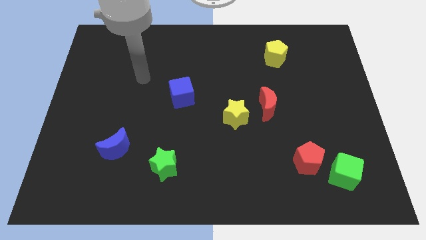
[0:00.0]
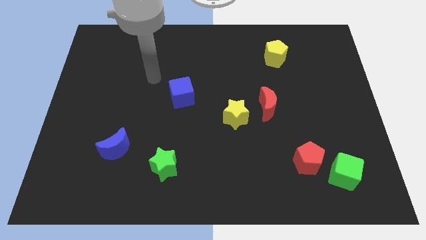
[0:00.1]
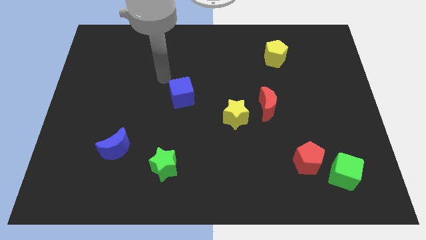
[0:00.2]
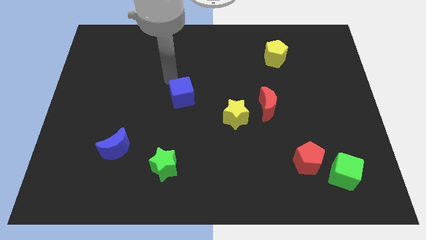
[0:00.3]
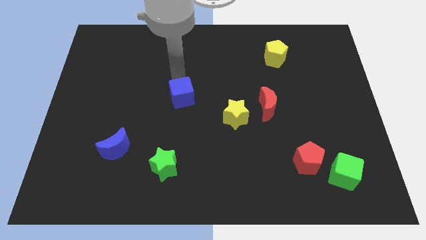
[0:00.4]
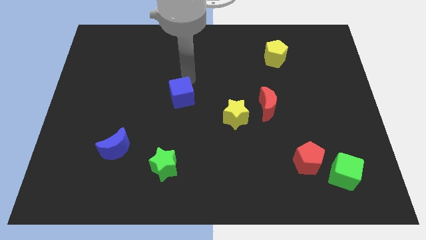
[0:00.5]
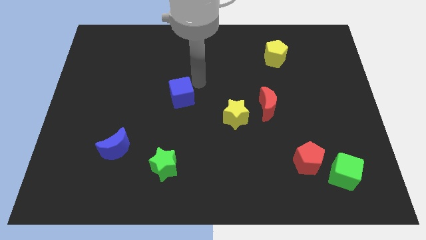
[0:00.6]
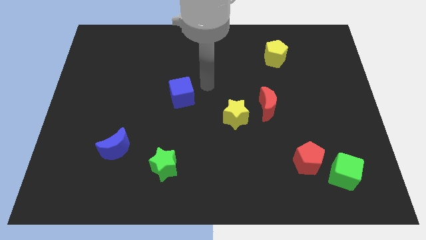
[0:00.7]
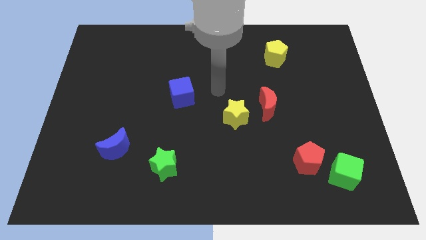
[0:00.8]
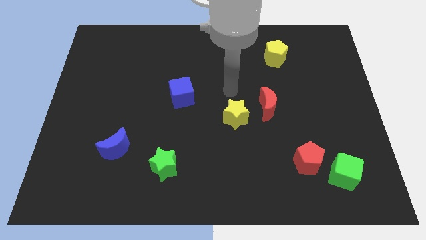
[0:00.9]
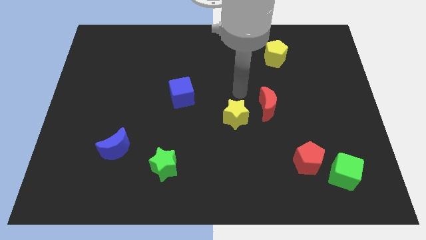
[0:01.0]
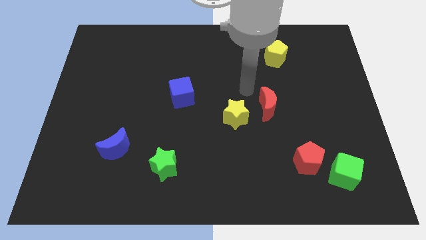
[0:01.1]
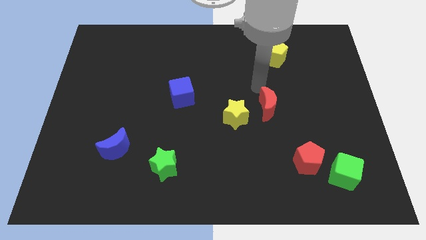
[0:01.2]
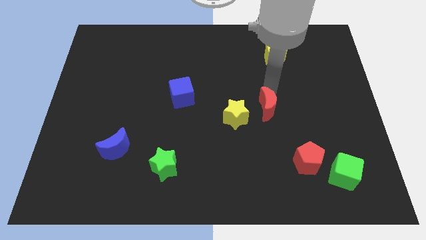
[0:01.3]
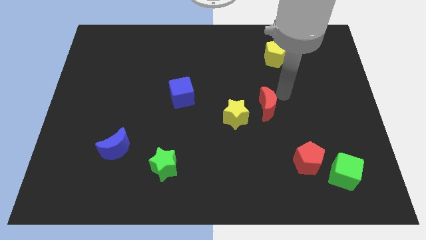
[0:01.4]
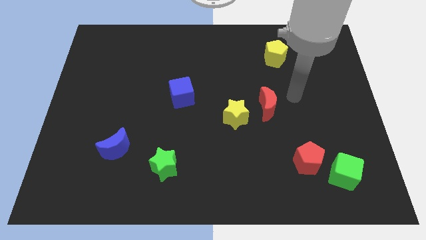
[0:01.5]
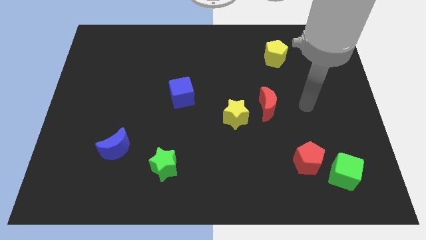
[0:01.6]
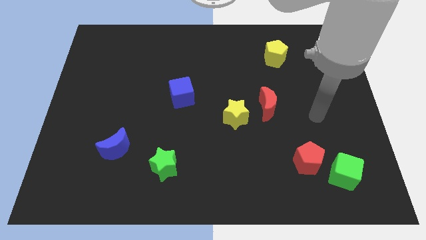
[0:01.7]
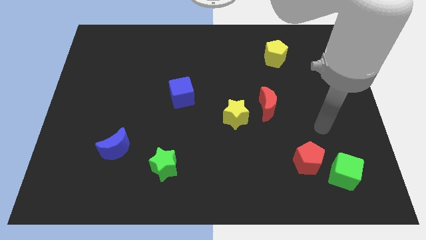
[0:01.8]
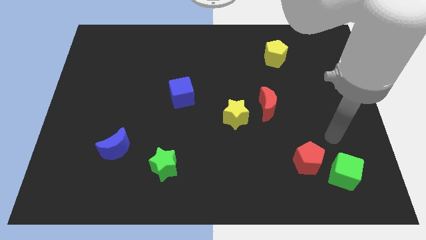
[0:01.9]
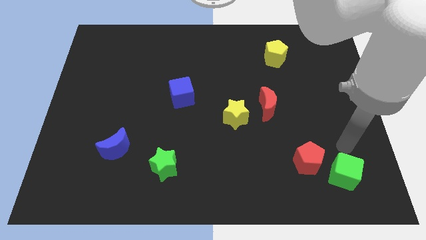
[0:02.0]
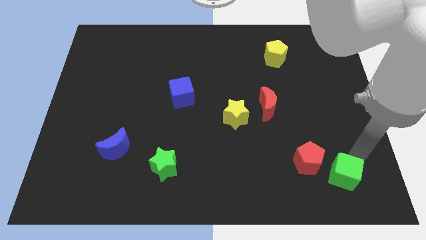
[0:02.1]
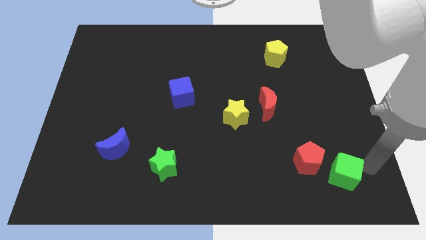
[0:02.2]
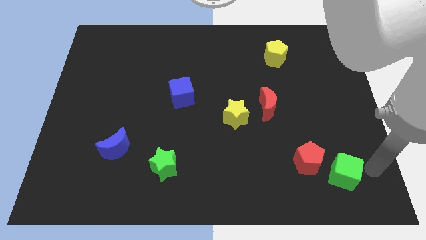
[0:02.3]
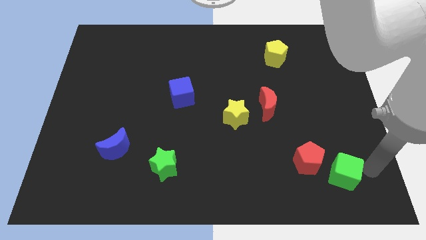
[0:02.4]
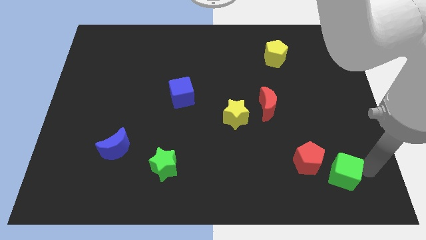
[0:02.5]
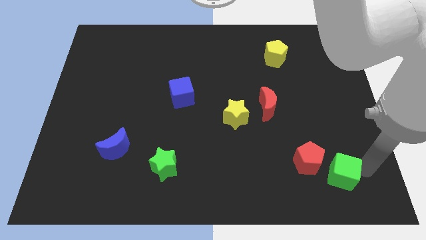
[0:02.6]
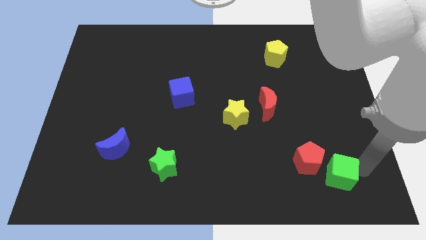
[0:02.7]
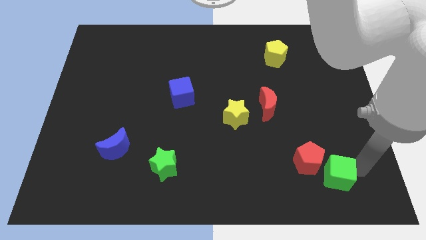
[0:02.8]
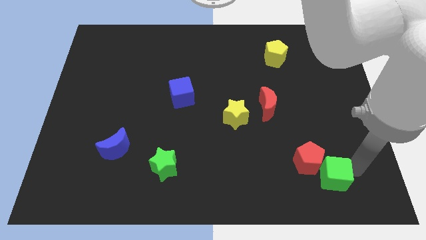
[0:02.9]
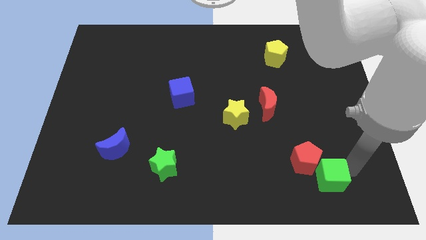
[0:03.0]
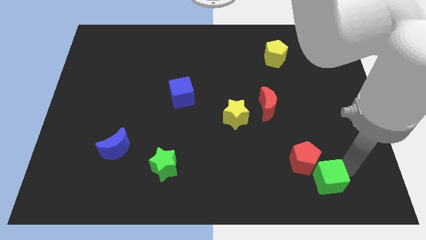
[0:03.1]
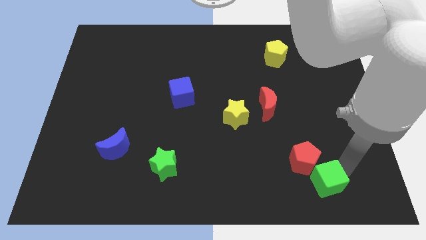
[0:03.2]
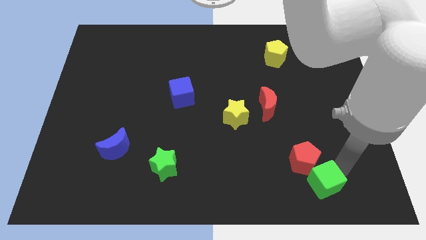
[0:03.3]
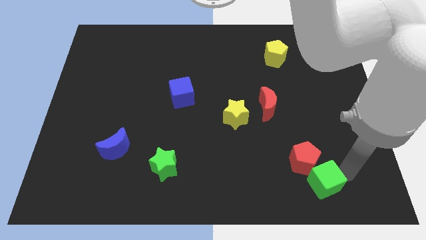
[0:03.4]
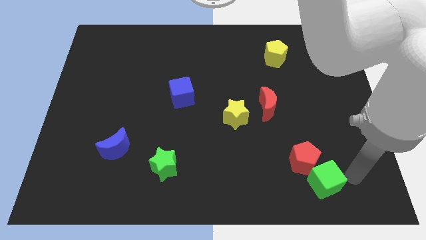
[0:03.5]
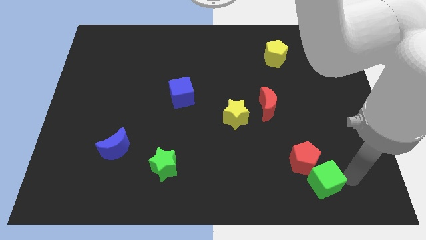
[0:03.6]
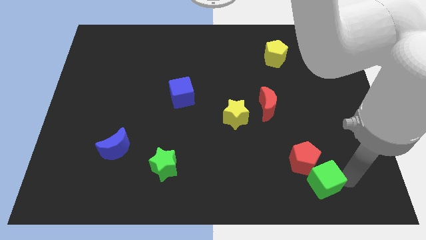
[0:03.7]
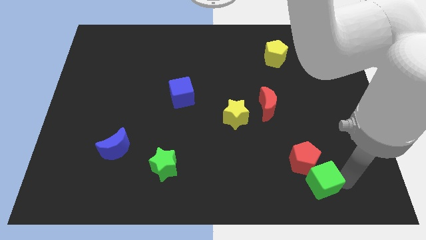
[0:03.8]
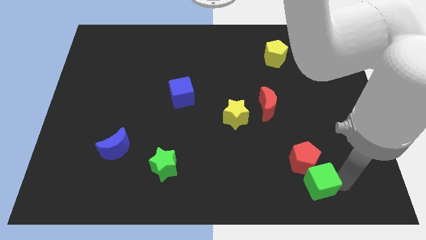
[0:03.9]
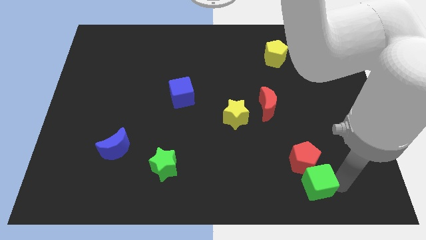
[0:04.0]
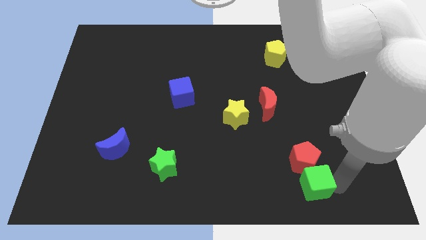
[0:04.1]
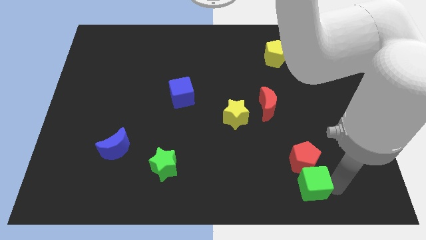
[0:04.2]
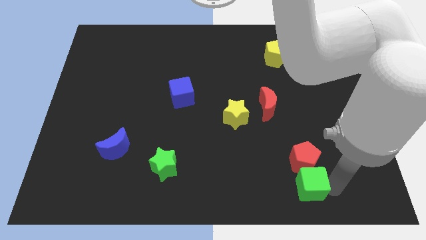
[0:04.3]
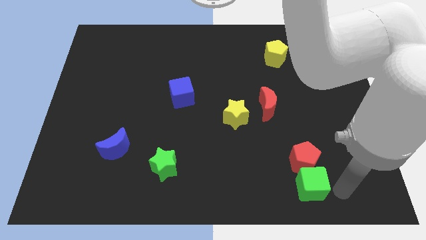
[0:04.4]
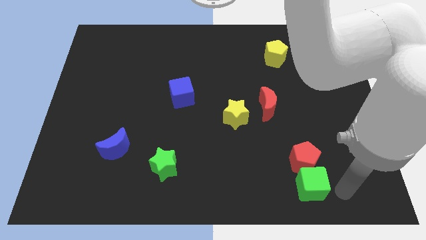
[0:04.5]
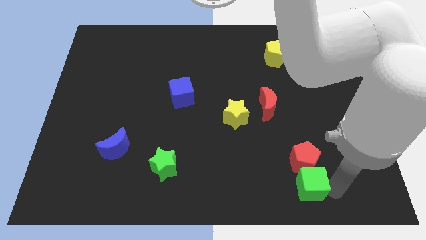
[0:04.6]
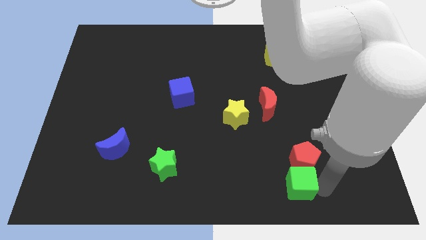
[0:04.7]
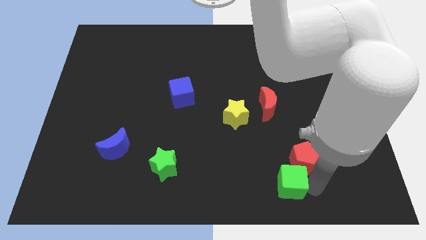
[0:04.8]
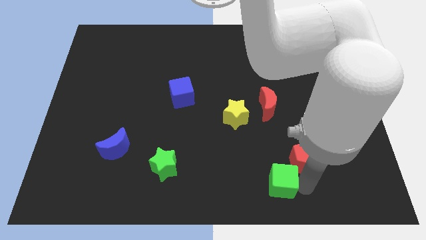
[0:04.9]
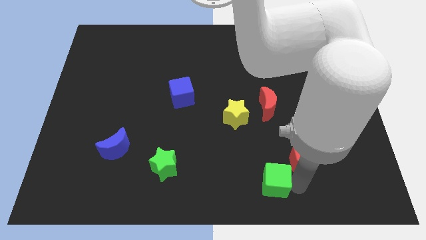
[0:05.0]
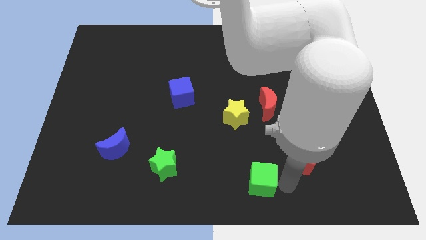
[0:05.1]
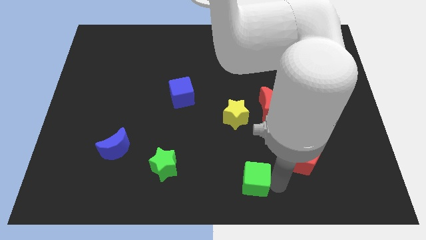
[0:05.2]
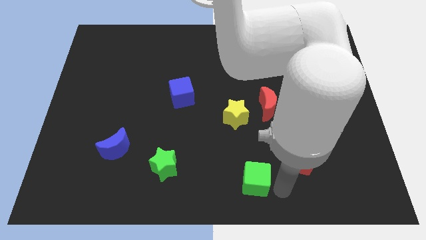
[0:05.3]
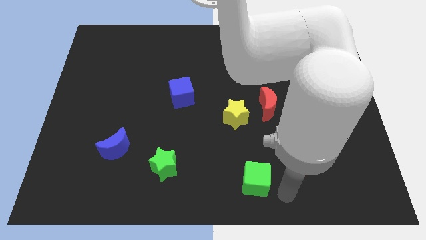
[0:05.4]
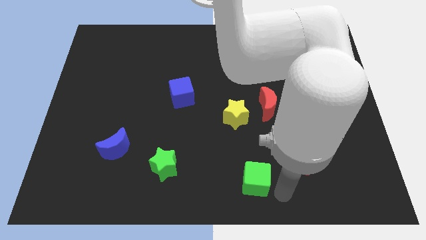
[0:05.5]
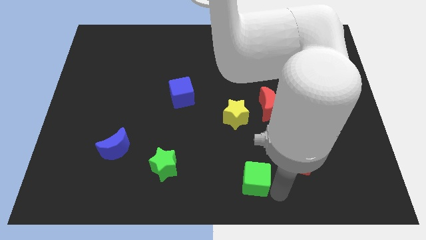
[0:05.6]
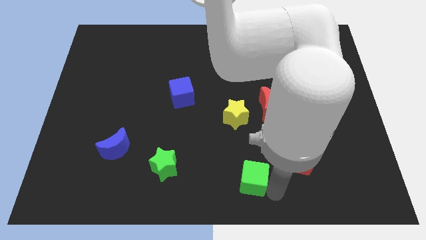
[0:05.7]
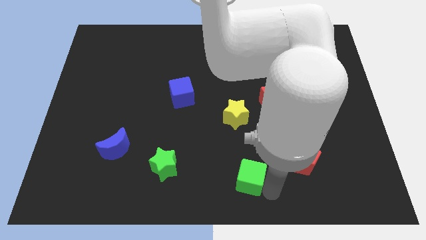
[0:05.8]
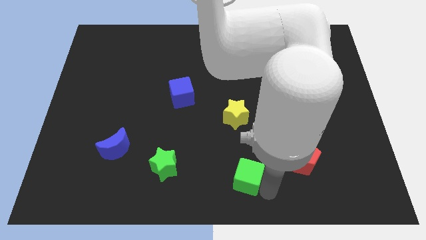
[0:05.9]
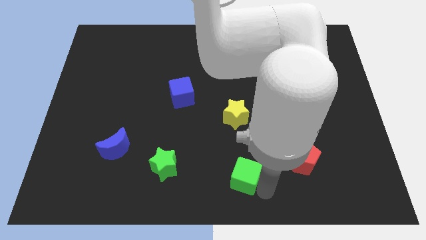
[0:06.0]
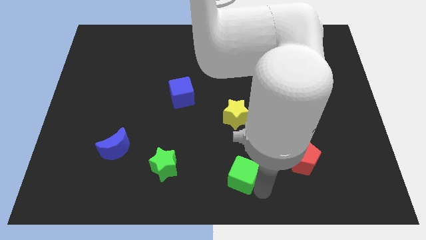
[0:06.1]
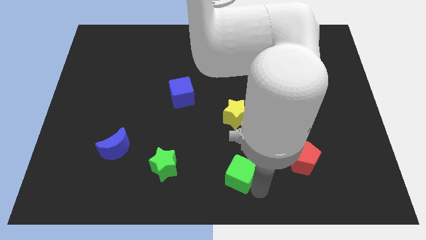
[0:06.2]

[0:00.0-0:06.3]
put the green cube to the right of the green star

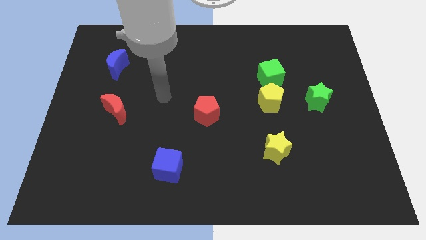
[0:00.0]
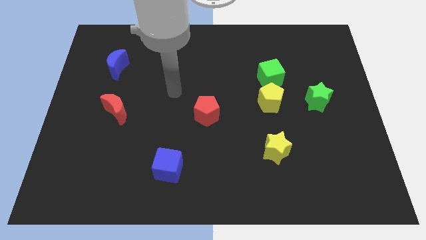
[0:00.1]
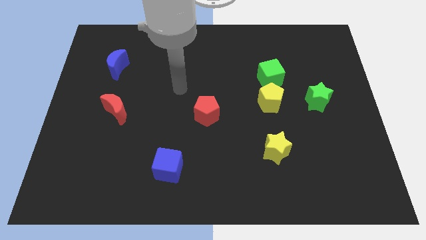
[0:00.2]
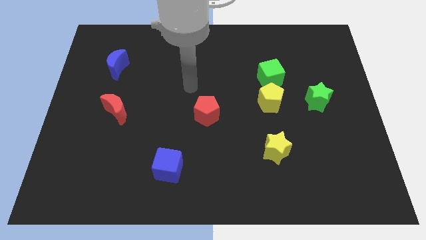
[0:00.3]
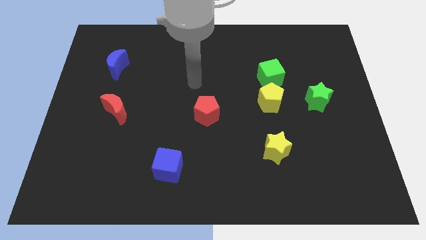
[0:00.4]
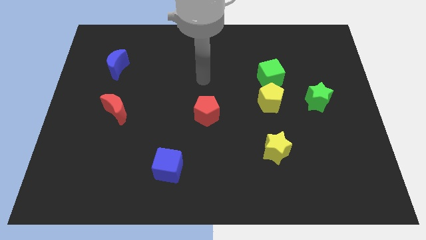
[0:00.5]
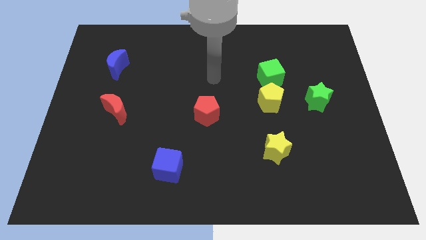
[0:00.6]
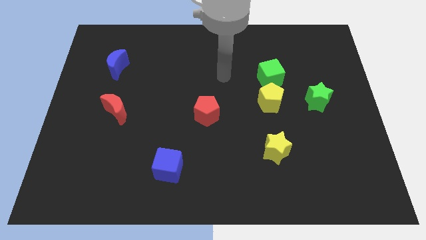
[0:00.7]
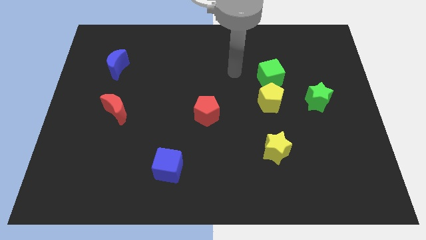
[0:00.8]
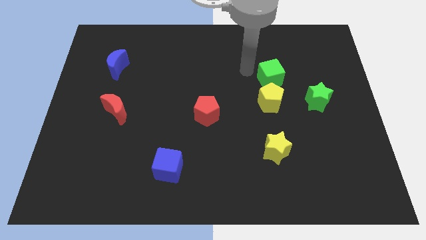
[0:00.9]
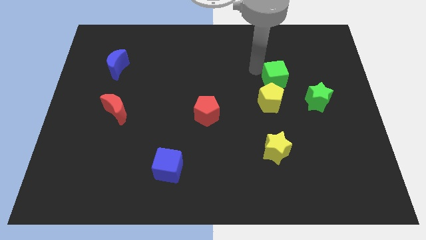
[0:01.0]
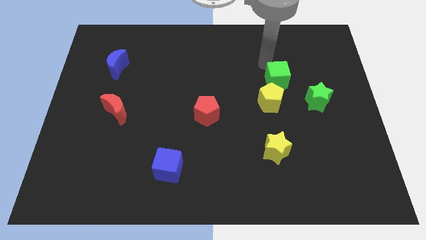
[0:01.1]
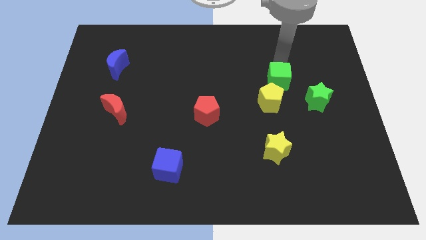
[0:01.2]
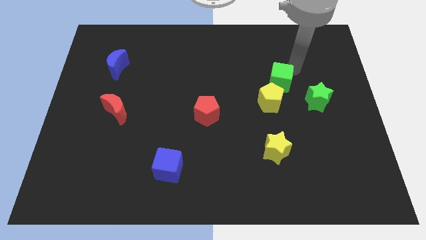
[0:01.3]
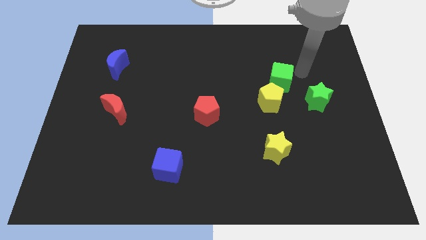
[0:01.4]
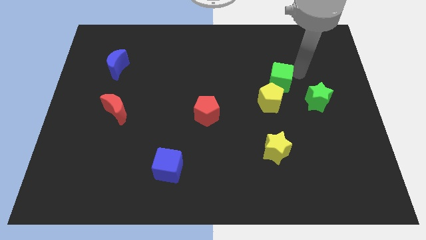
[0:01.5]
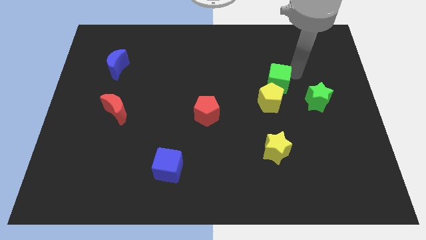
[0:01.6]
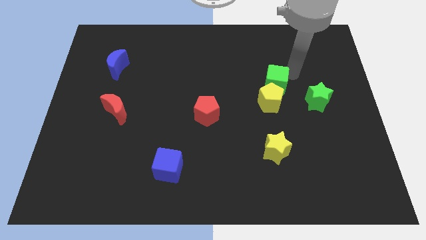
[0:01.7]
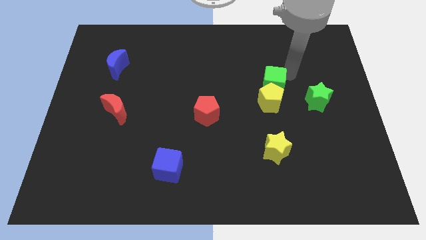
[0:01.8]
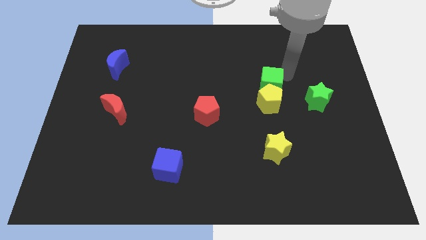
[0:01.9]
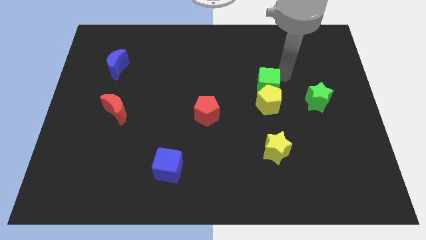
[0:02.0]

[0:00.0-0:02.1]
push the green cube left of the green star
